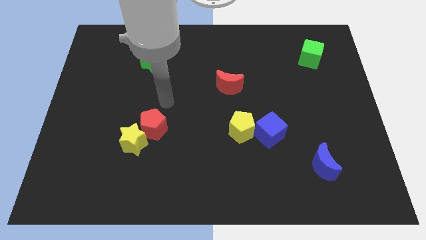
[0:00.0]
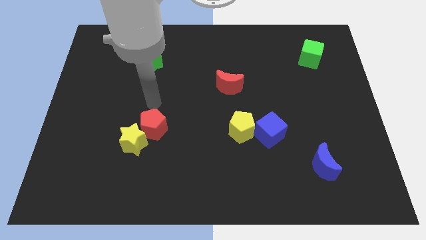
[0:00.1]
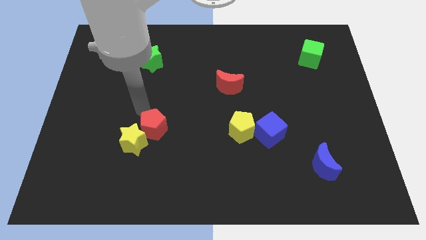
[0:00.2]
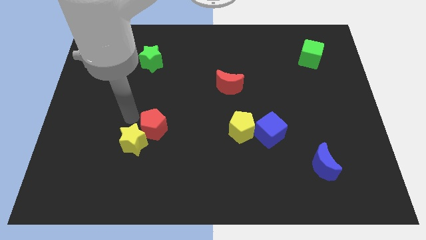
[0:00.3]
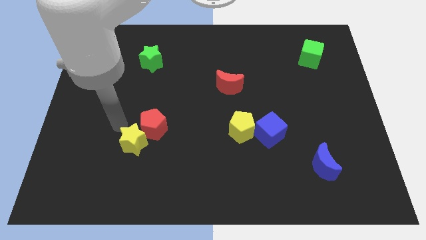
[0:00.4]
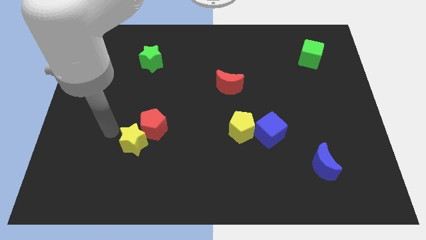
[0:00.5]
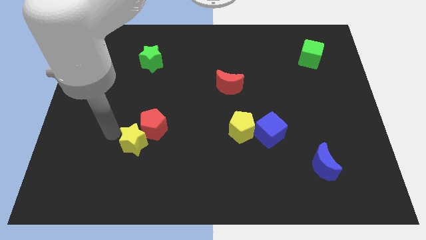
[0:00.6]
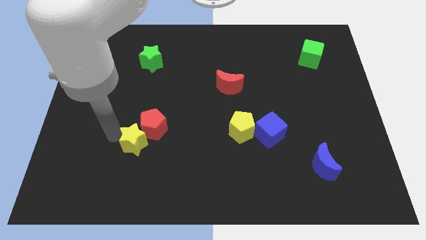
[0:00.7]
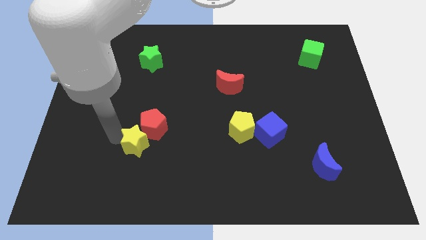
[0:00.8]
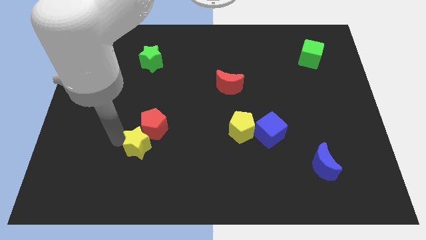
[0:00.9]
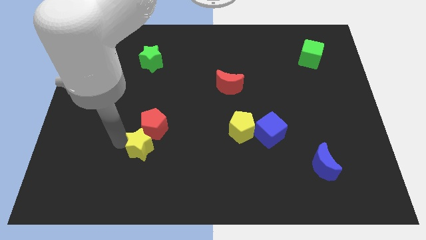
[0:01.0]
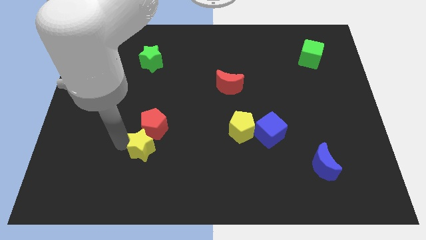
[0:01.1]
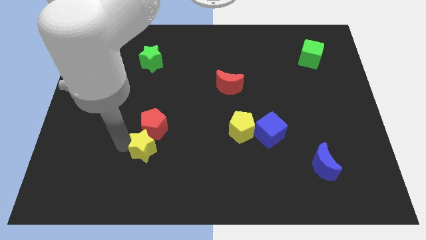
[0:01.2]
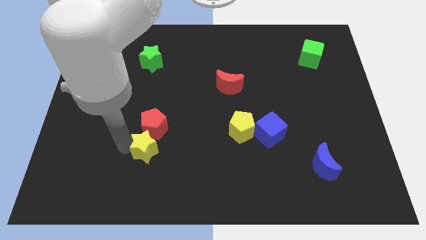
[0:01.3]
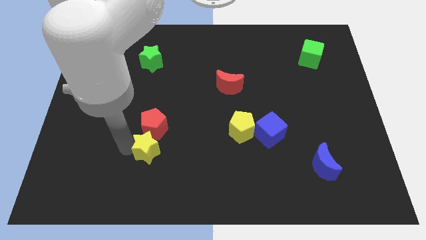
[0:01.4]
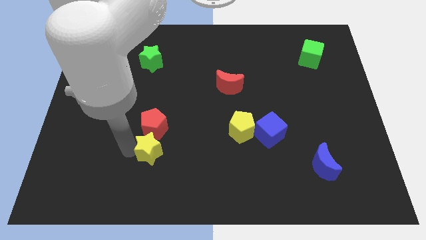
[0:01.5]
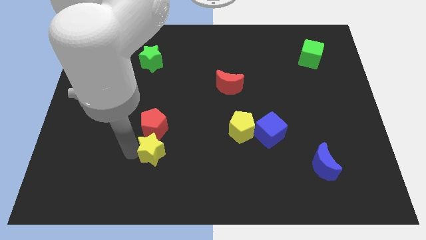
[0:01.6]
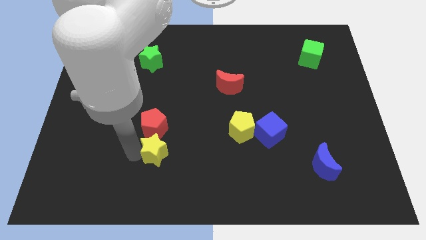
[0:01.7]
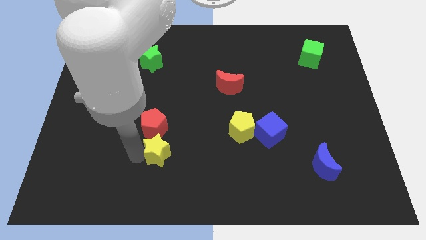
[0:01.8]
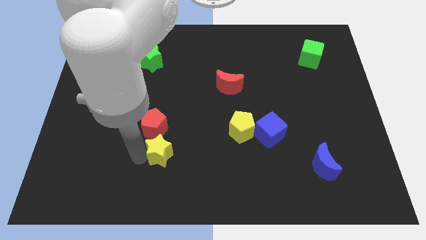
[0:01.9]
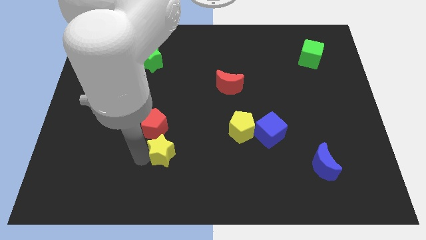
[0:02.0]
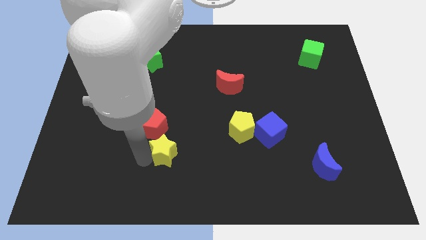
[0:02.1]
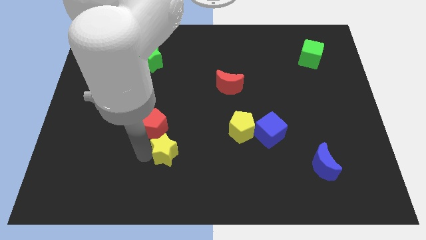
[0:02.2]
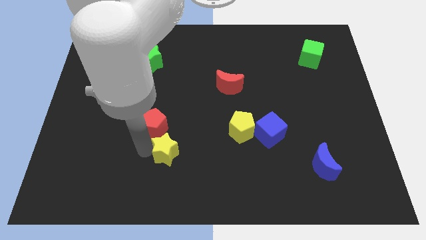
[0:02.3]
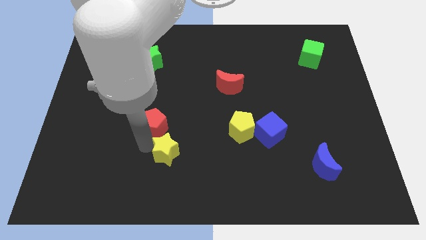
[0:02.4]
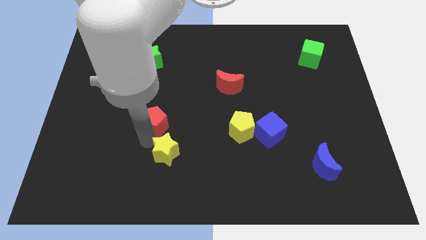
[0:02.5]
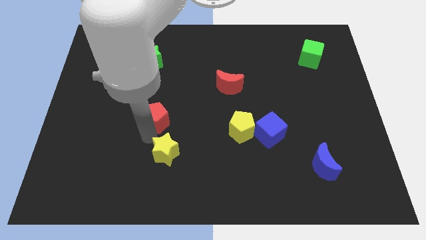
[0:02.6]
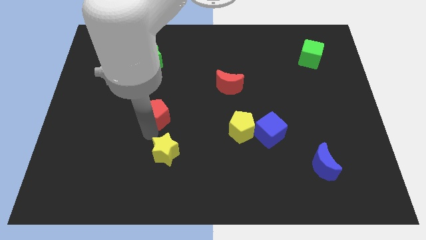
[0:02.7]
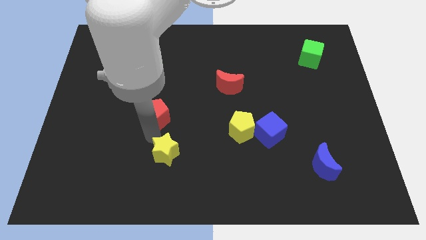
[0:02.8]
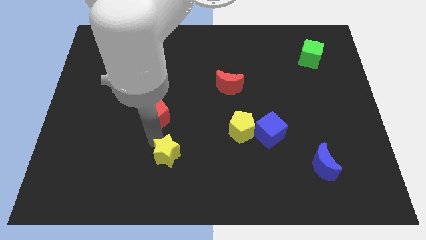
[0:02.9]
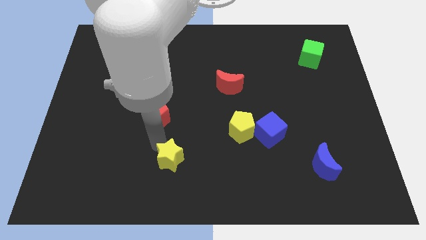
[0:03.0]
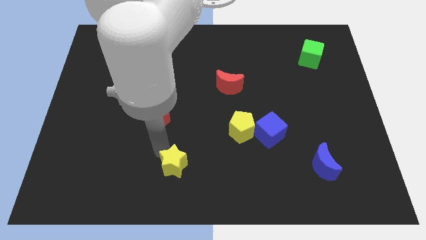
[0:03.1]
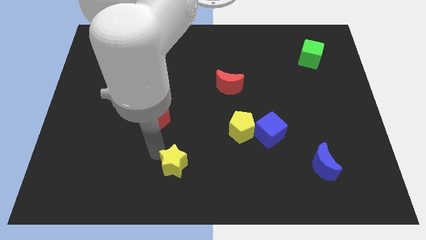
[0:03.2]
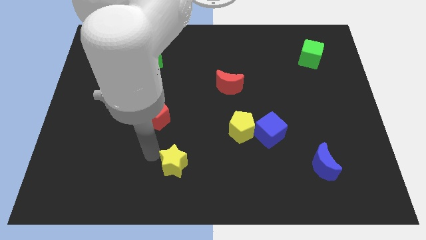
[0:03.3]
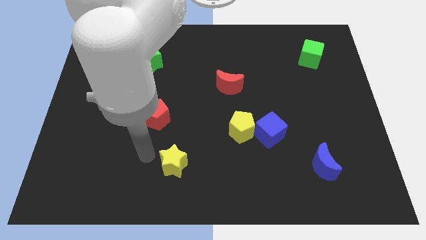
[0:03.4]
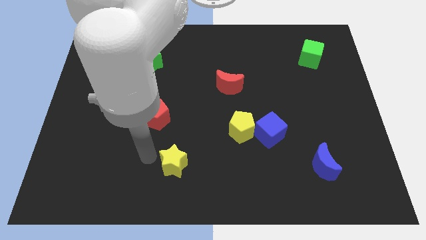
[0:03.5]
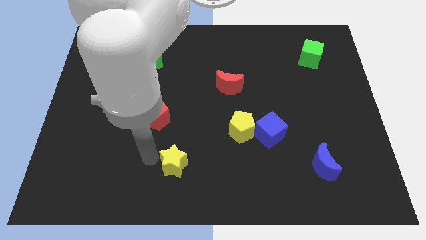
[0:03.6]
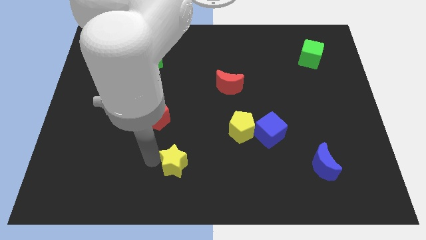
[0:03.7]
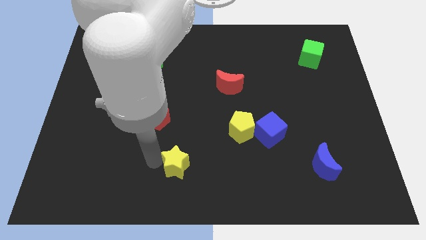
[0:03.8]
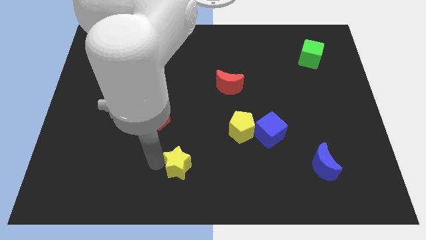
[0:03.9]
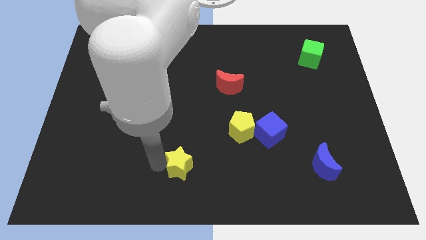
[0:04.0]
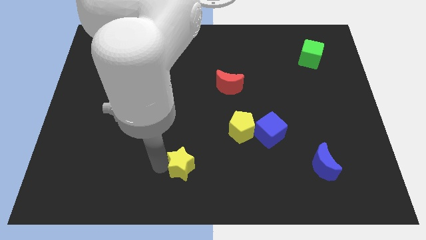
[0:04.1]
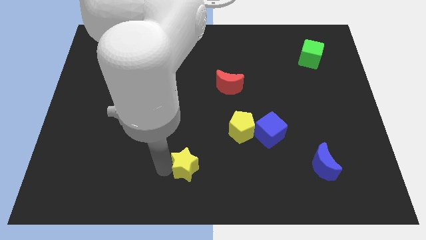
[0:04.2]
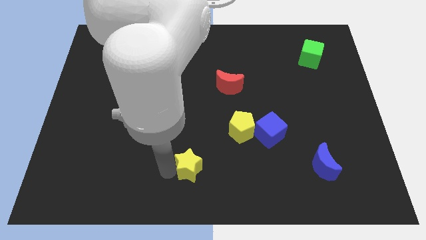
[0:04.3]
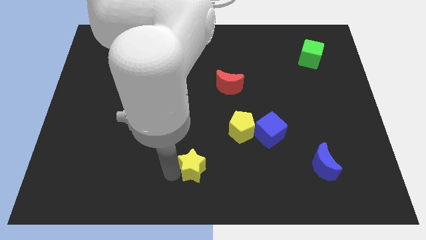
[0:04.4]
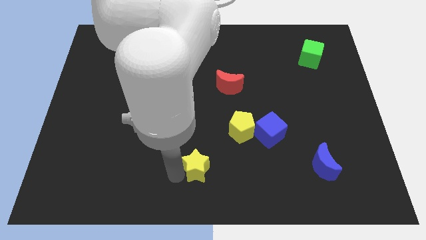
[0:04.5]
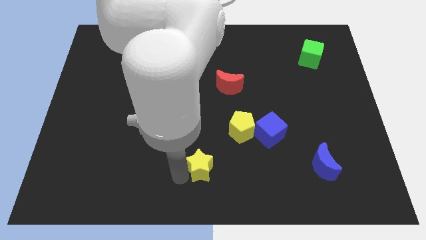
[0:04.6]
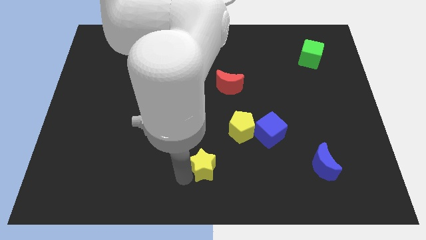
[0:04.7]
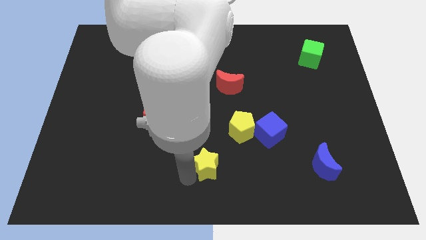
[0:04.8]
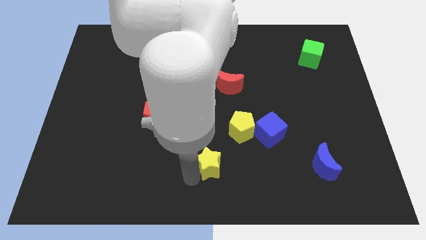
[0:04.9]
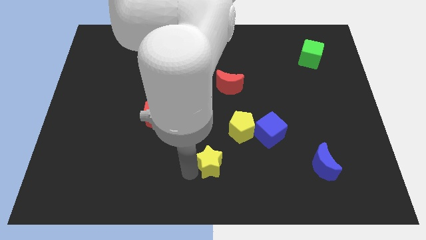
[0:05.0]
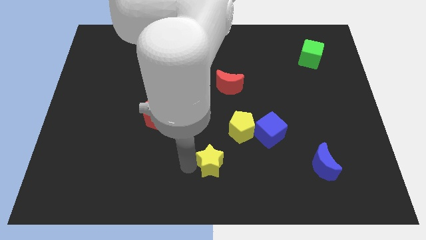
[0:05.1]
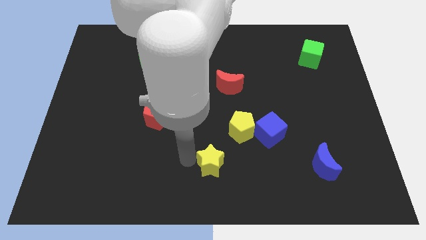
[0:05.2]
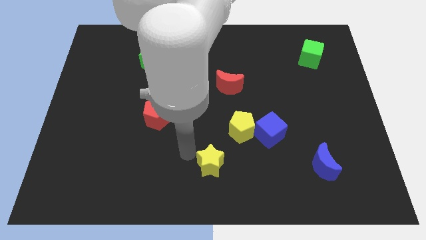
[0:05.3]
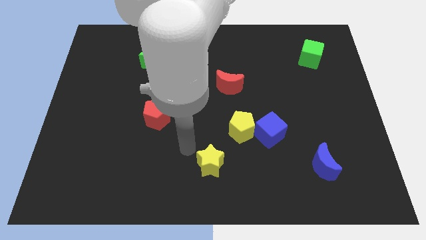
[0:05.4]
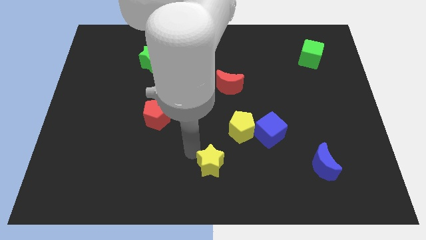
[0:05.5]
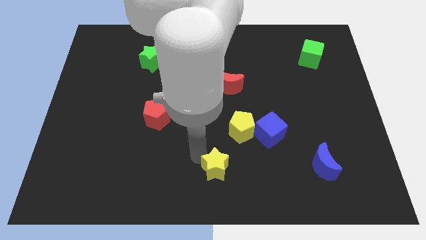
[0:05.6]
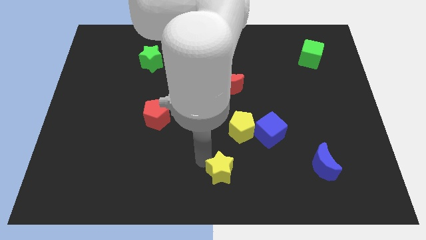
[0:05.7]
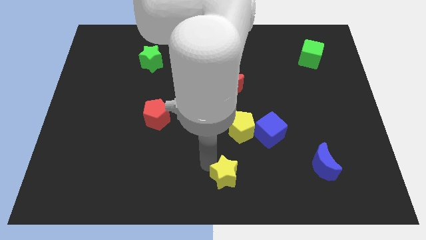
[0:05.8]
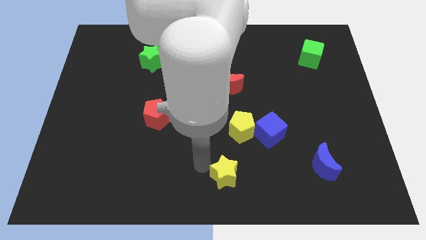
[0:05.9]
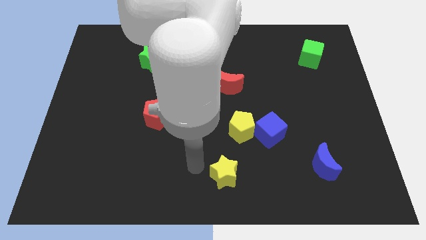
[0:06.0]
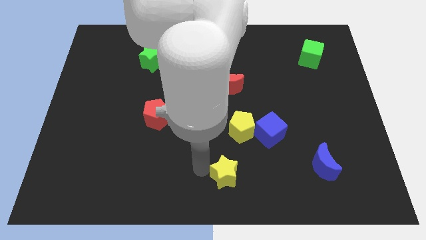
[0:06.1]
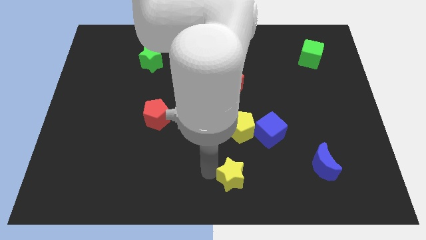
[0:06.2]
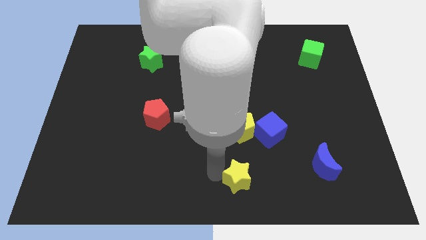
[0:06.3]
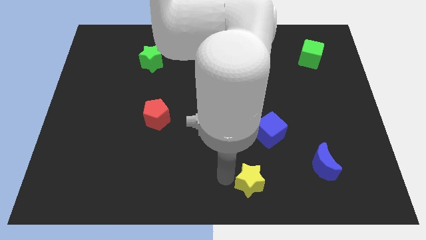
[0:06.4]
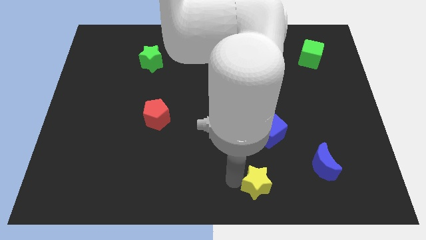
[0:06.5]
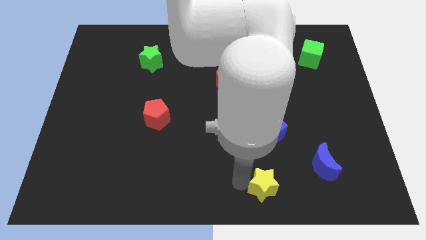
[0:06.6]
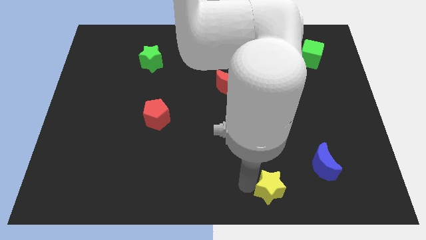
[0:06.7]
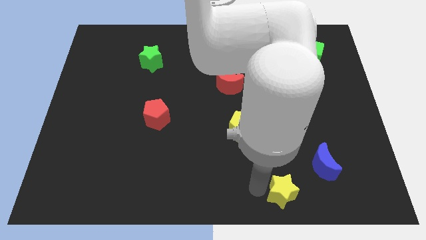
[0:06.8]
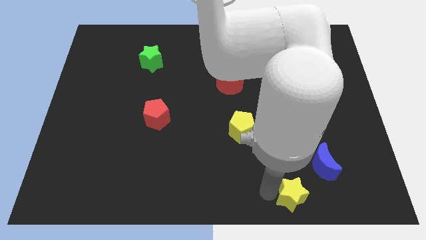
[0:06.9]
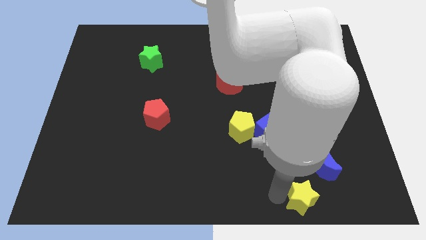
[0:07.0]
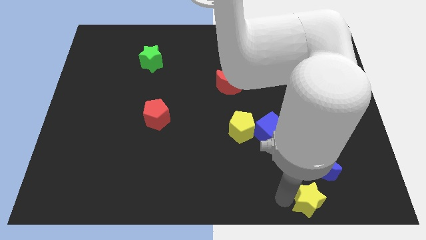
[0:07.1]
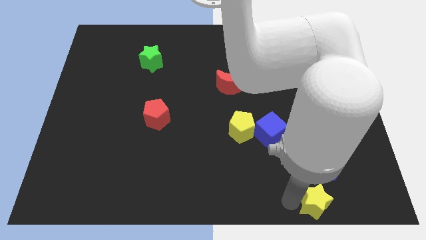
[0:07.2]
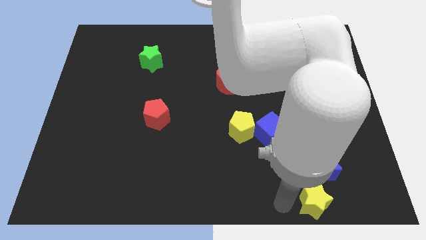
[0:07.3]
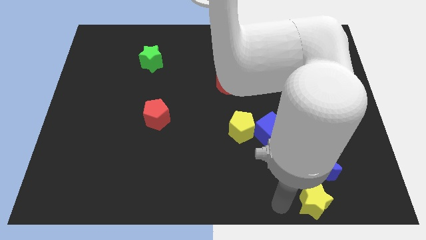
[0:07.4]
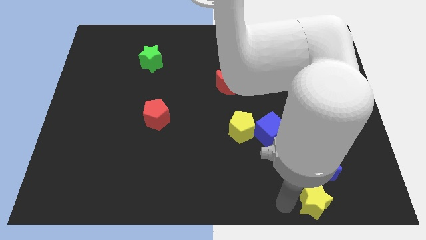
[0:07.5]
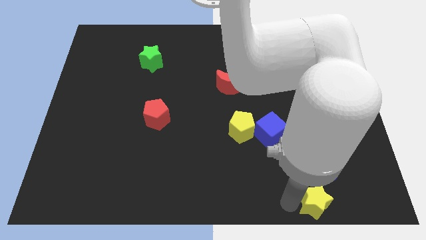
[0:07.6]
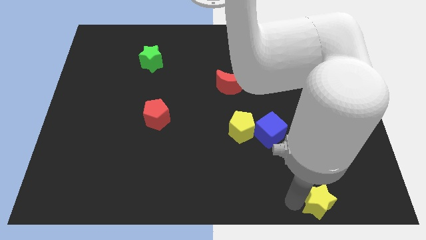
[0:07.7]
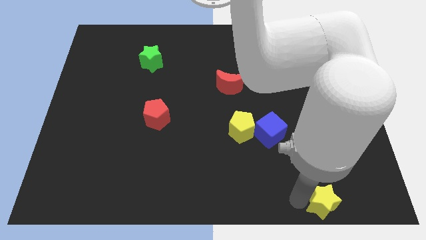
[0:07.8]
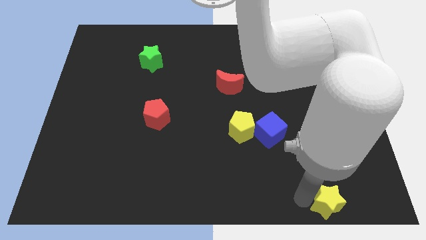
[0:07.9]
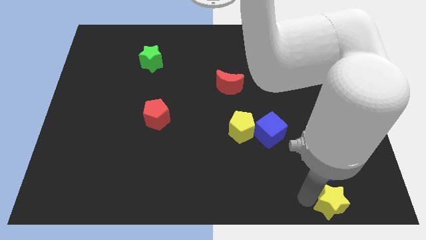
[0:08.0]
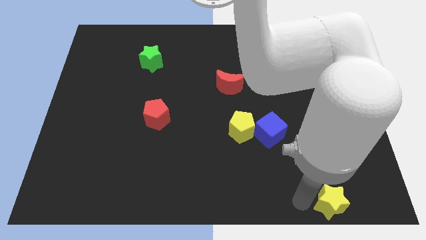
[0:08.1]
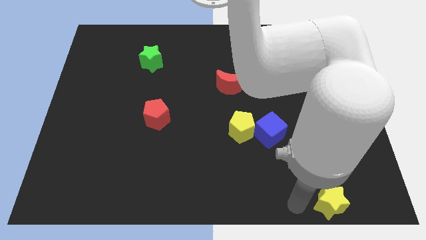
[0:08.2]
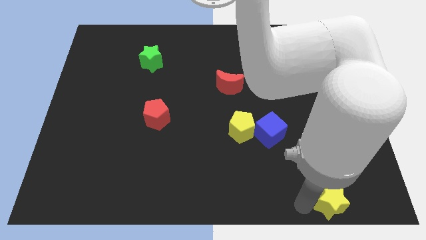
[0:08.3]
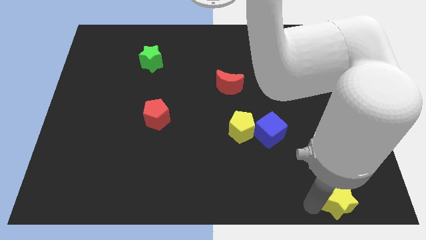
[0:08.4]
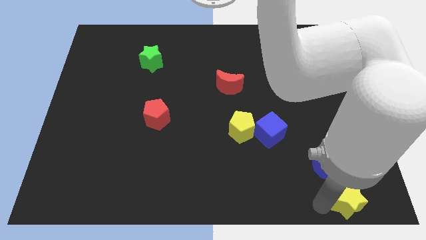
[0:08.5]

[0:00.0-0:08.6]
push the yellow star to the bottom right of the board
